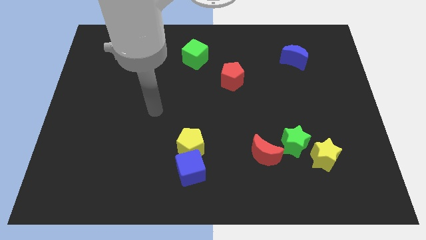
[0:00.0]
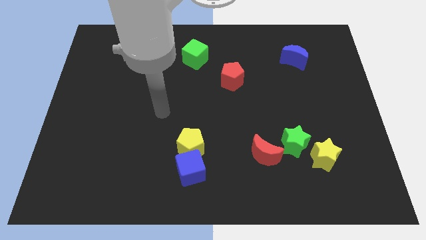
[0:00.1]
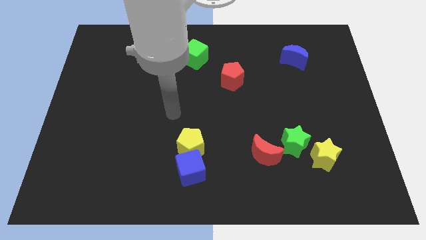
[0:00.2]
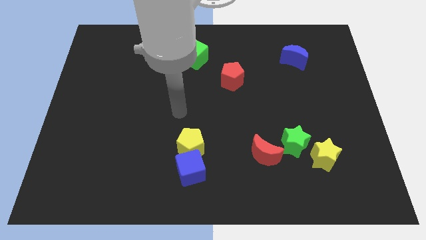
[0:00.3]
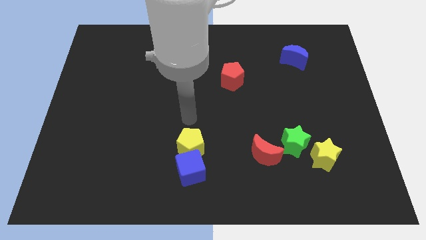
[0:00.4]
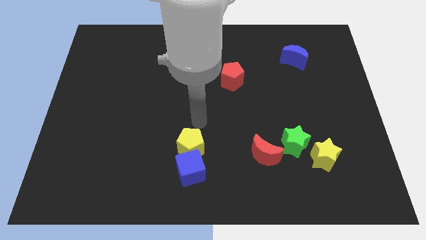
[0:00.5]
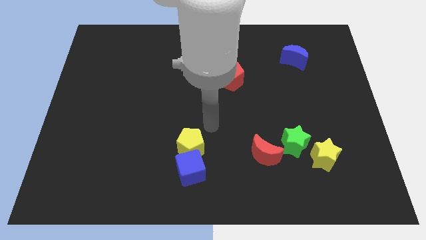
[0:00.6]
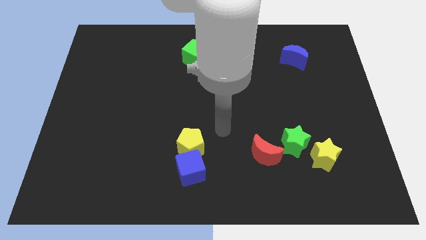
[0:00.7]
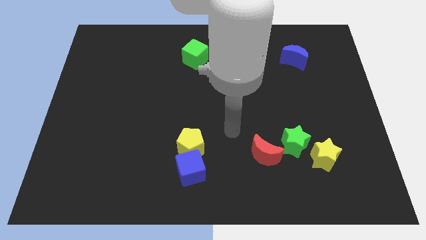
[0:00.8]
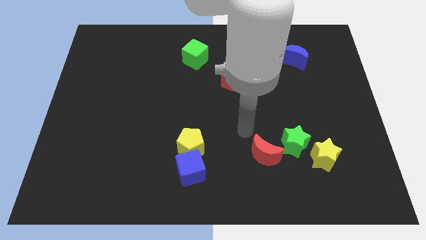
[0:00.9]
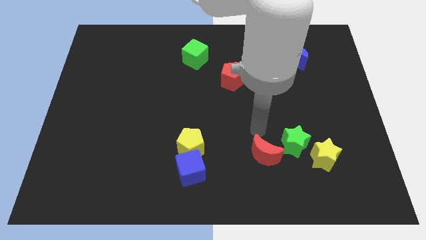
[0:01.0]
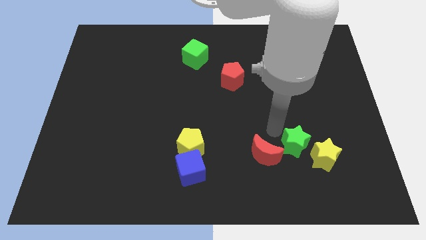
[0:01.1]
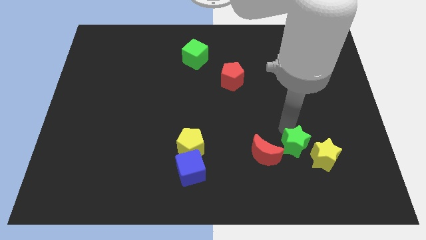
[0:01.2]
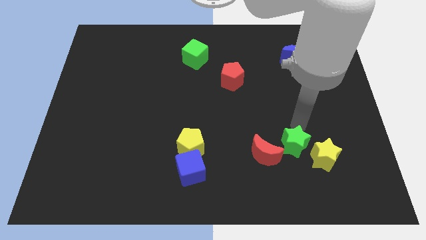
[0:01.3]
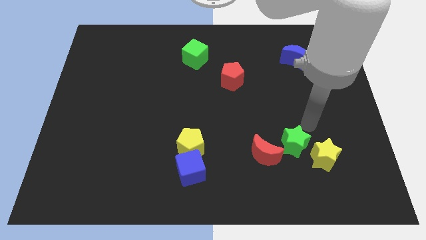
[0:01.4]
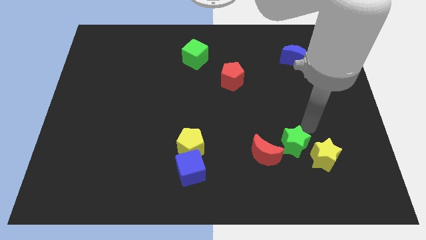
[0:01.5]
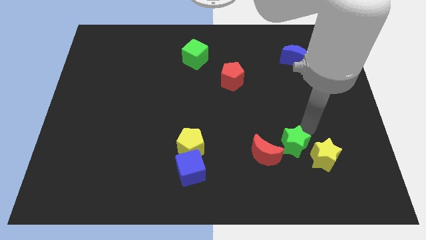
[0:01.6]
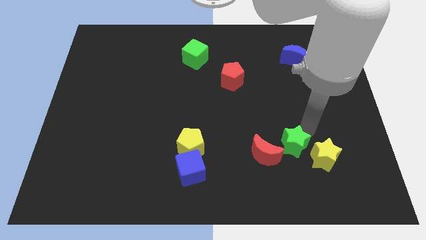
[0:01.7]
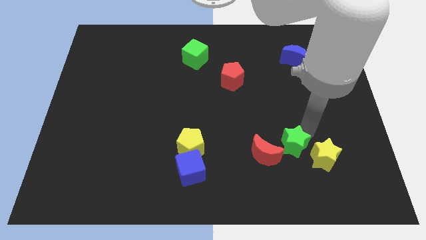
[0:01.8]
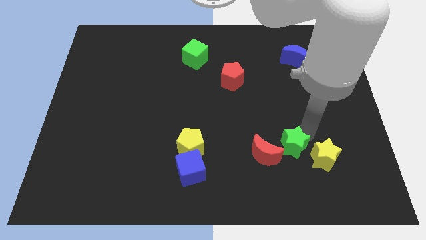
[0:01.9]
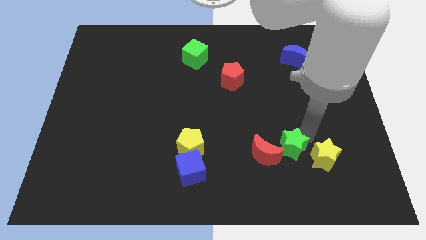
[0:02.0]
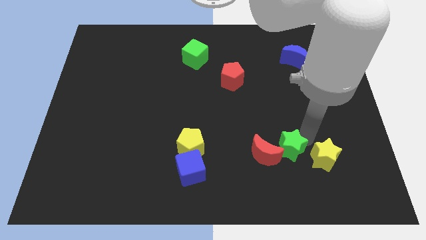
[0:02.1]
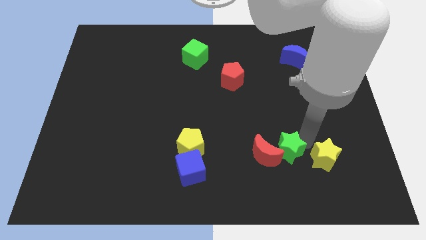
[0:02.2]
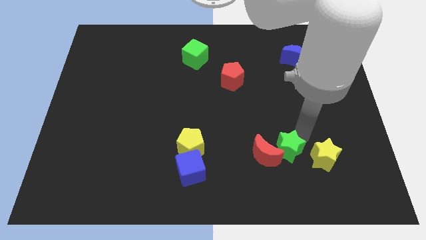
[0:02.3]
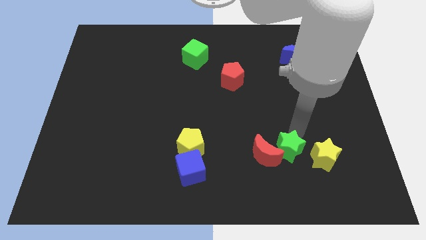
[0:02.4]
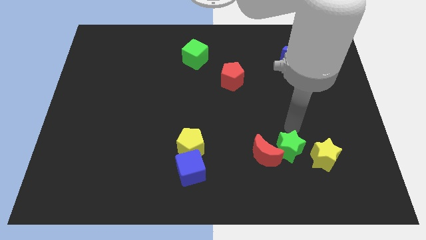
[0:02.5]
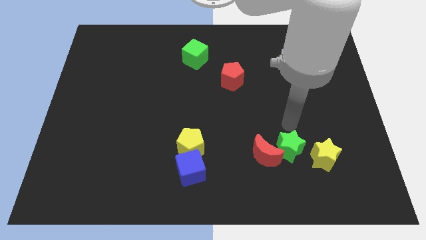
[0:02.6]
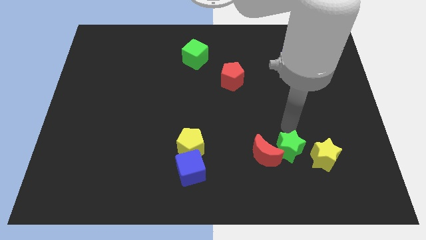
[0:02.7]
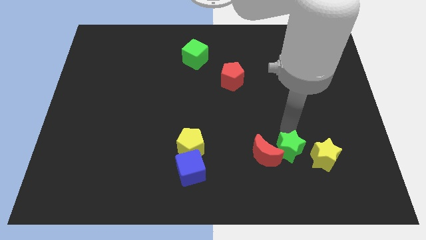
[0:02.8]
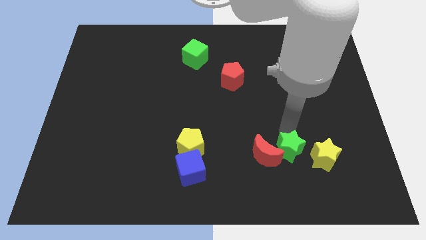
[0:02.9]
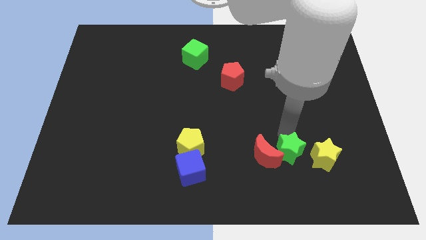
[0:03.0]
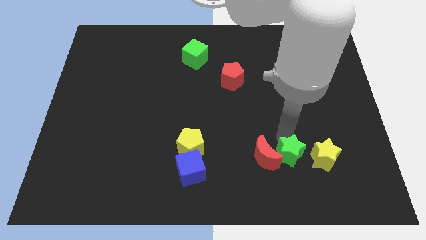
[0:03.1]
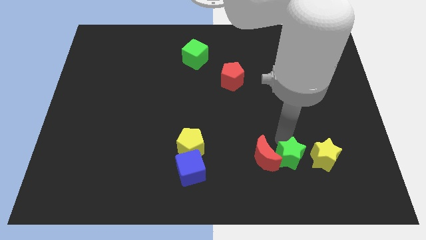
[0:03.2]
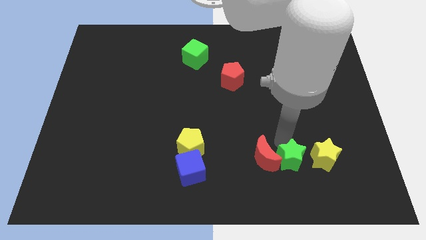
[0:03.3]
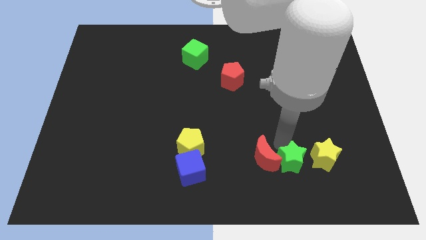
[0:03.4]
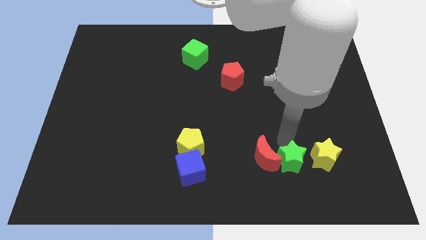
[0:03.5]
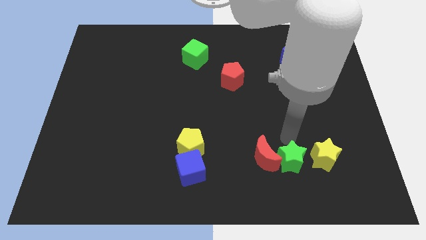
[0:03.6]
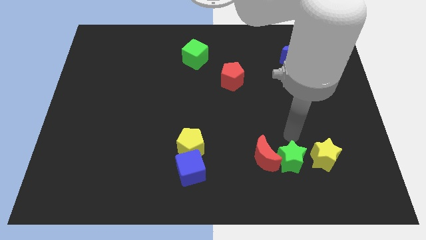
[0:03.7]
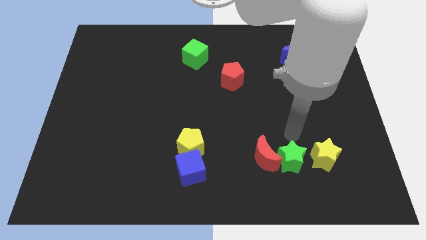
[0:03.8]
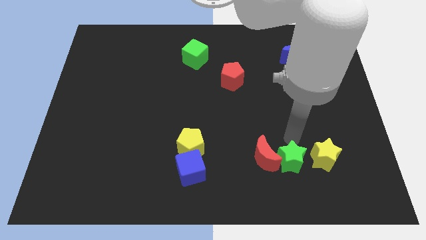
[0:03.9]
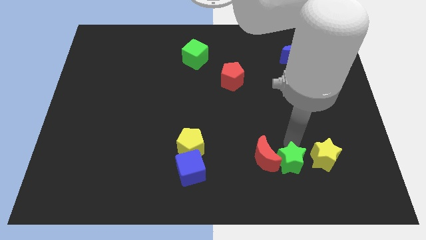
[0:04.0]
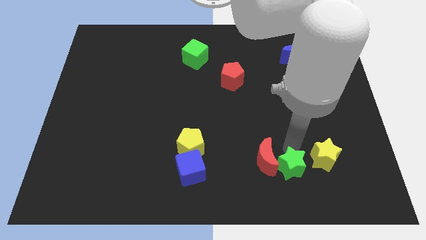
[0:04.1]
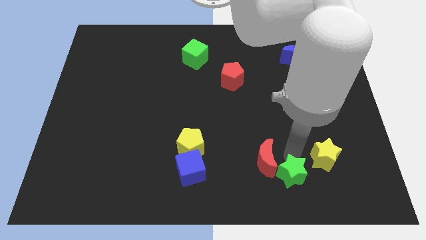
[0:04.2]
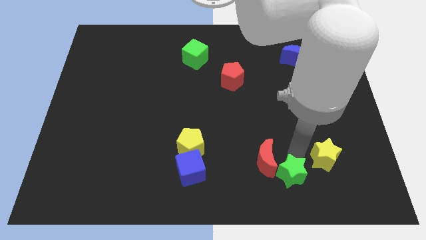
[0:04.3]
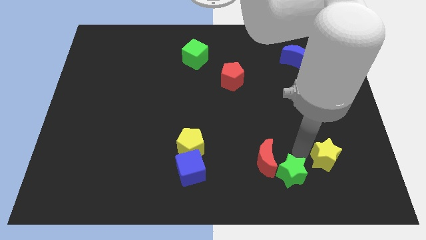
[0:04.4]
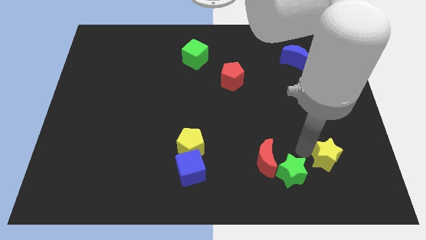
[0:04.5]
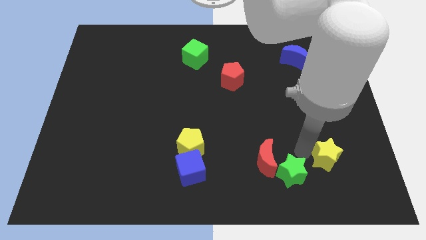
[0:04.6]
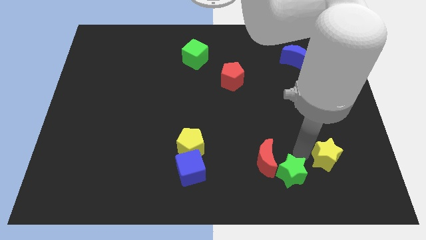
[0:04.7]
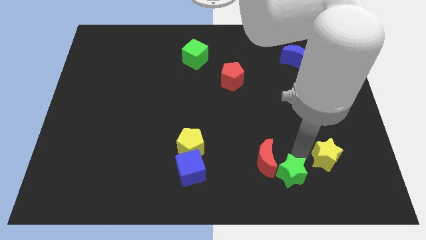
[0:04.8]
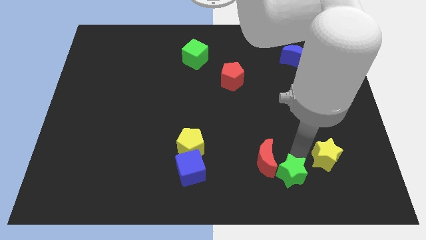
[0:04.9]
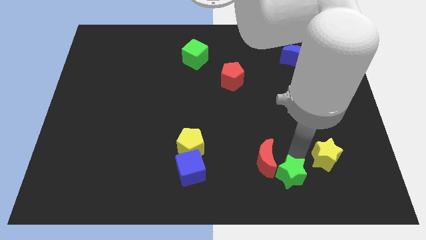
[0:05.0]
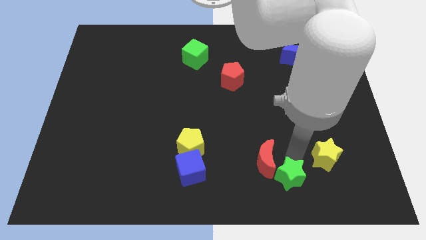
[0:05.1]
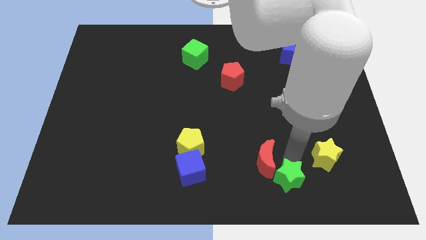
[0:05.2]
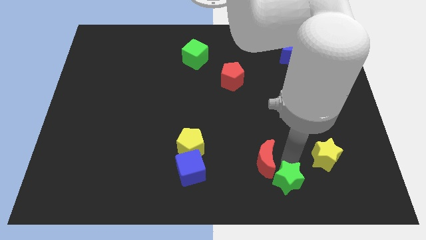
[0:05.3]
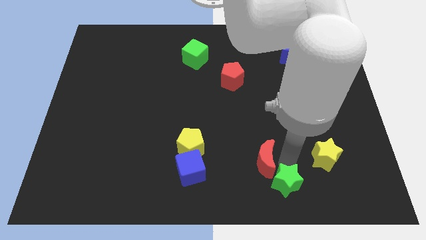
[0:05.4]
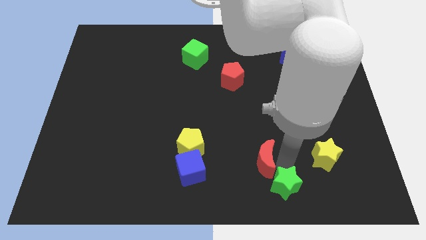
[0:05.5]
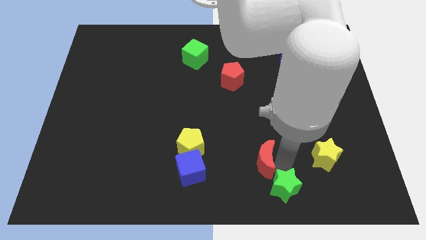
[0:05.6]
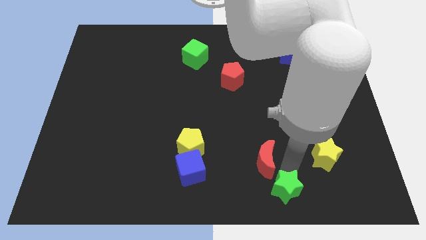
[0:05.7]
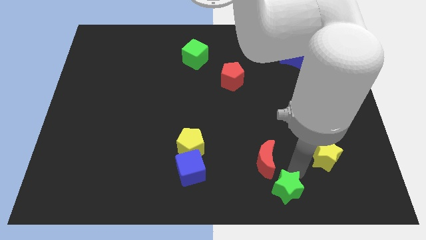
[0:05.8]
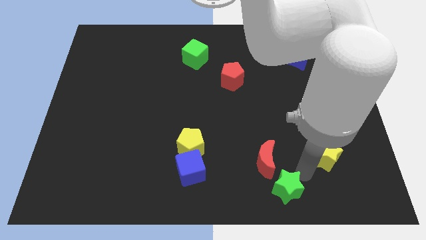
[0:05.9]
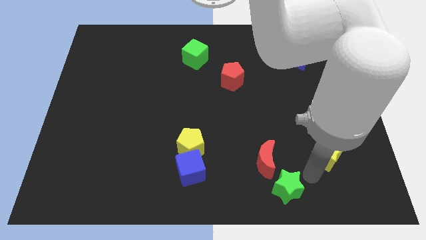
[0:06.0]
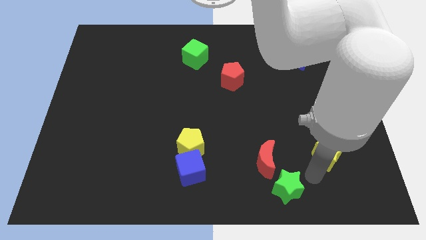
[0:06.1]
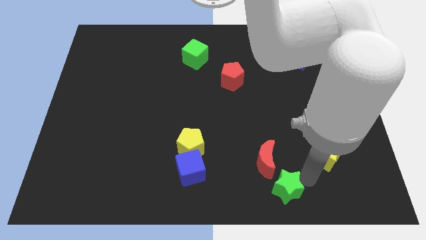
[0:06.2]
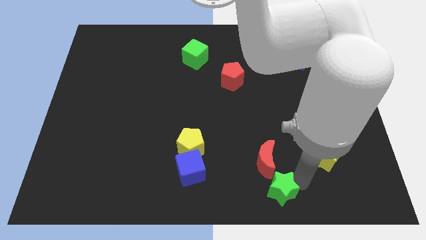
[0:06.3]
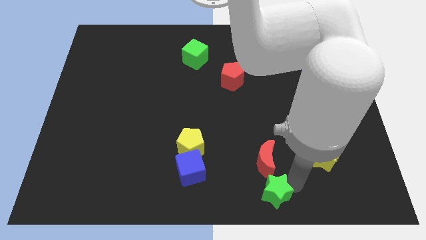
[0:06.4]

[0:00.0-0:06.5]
slide the green star to the bottom side

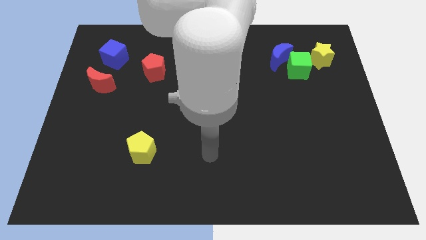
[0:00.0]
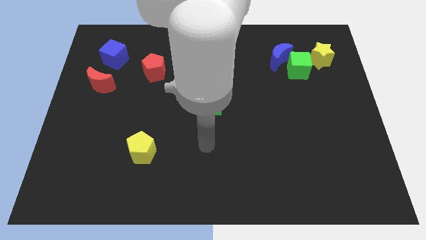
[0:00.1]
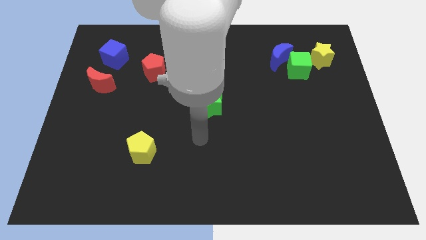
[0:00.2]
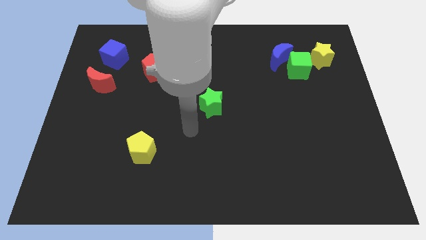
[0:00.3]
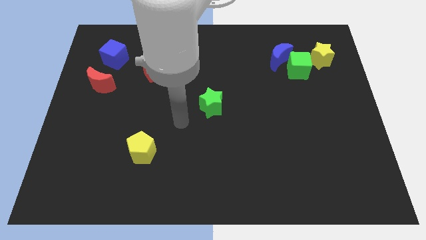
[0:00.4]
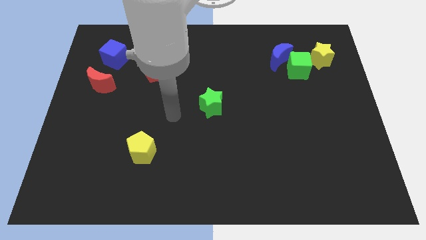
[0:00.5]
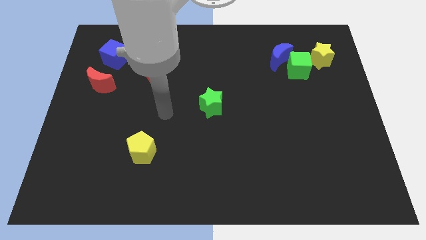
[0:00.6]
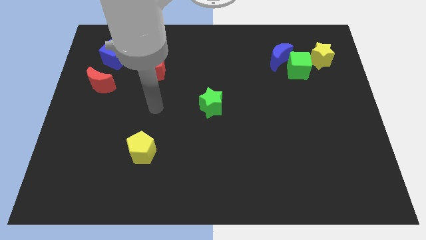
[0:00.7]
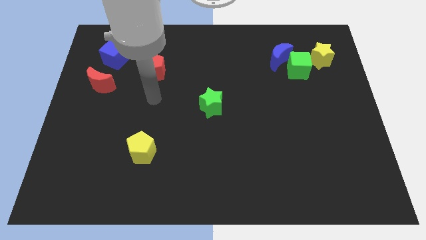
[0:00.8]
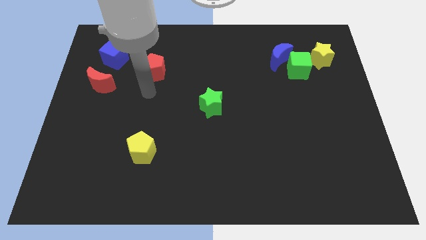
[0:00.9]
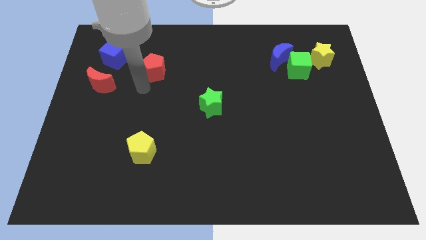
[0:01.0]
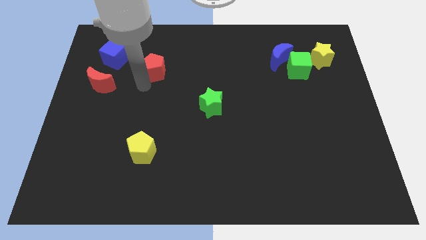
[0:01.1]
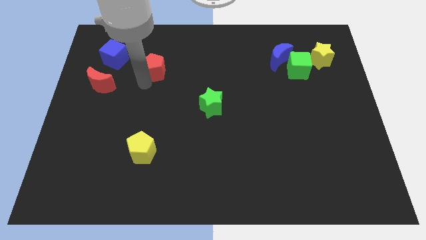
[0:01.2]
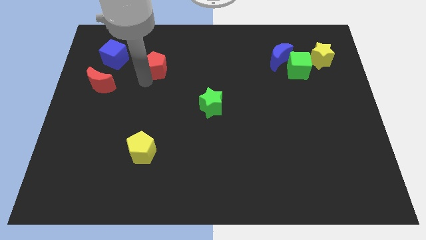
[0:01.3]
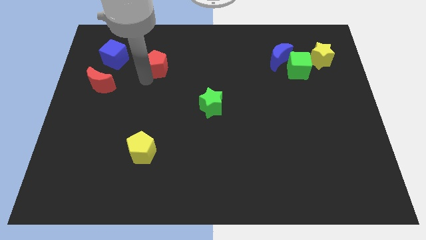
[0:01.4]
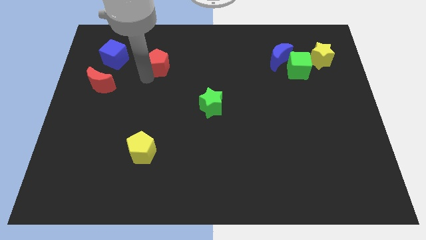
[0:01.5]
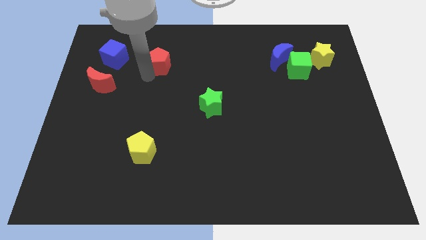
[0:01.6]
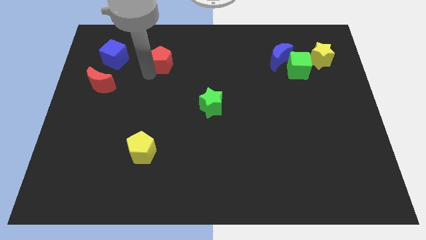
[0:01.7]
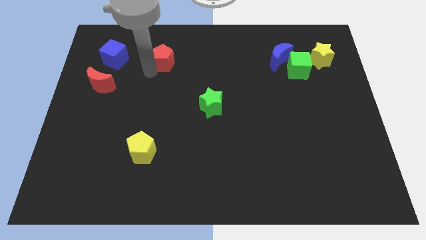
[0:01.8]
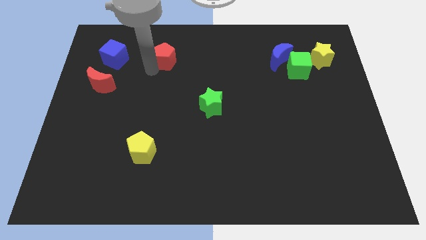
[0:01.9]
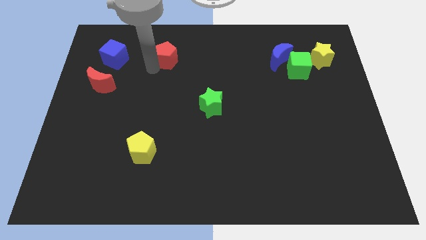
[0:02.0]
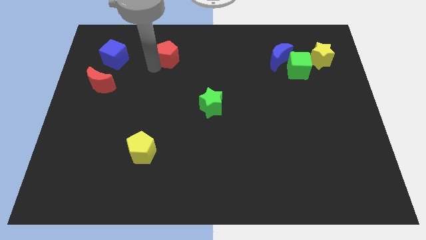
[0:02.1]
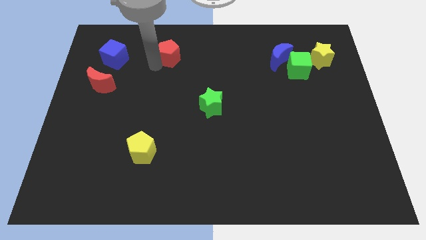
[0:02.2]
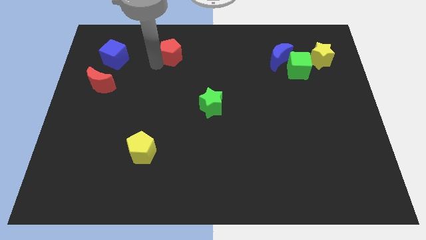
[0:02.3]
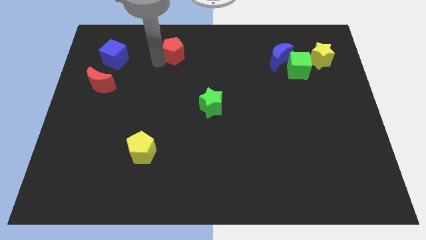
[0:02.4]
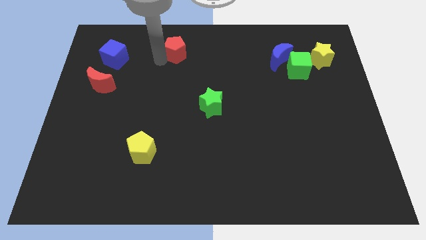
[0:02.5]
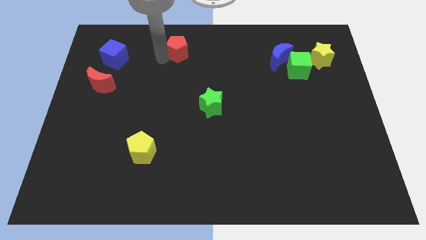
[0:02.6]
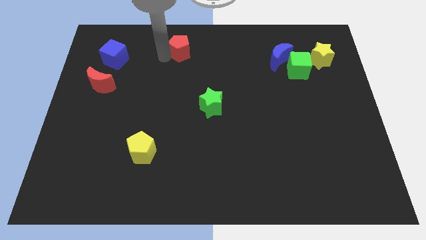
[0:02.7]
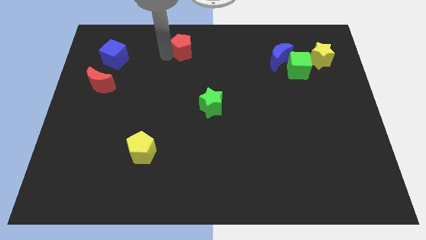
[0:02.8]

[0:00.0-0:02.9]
push the red pentagon to the top
